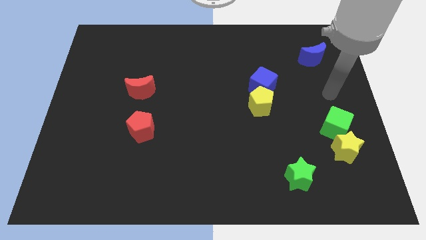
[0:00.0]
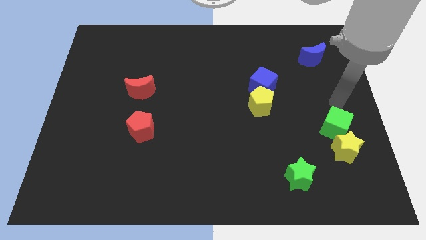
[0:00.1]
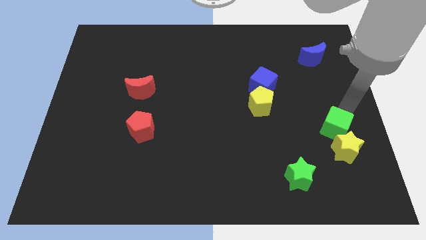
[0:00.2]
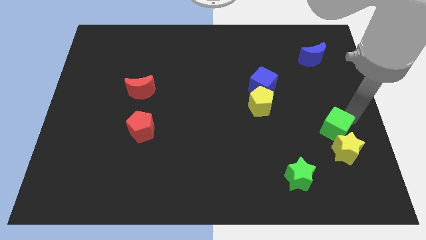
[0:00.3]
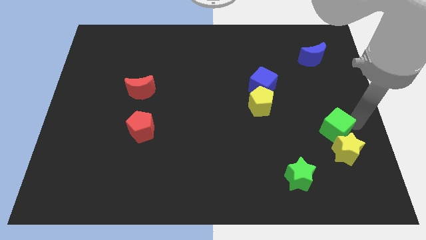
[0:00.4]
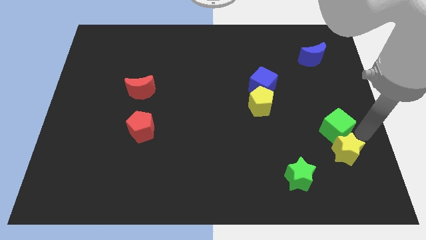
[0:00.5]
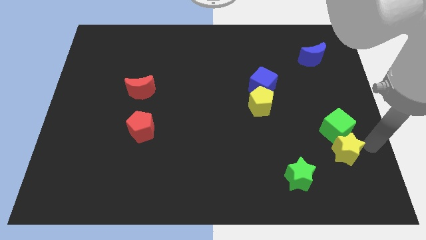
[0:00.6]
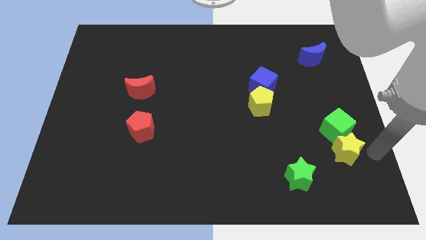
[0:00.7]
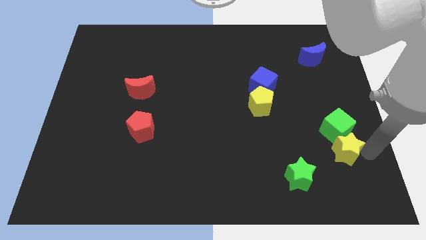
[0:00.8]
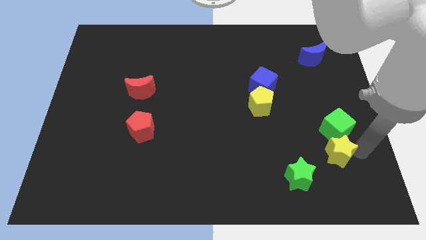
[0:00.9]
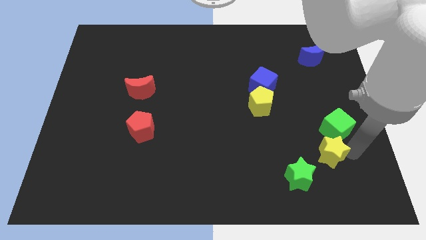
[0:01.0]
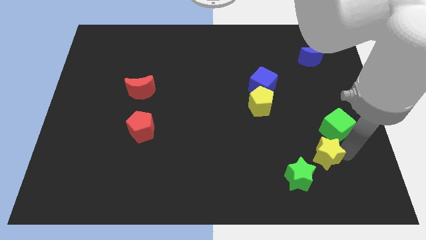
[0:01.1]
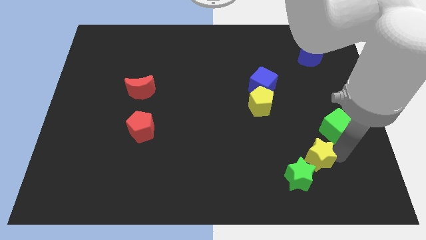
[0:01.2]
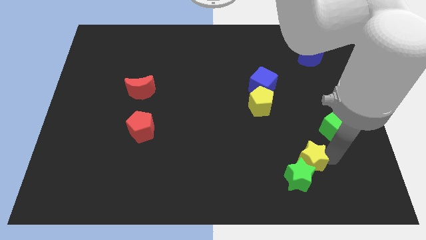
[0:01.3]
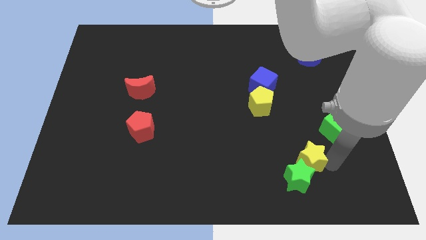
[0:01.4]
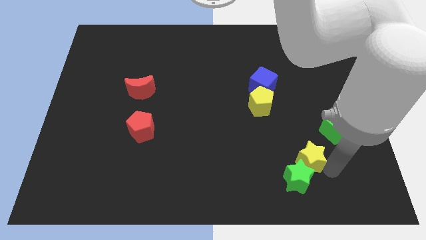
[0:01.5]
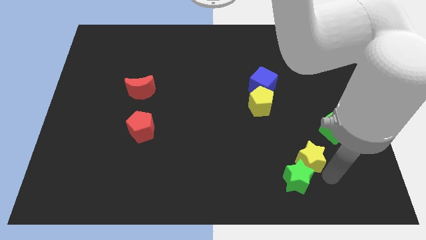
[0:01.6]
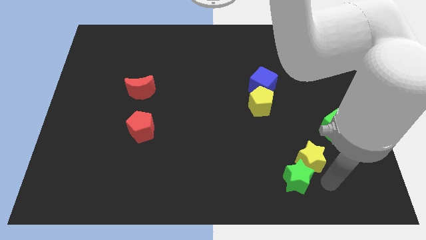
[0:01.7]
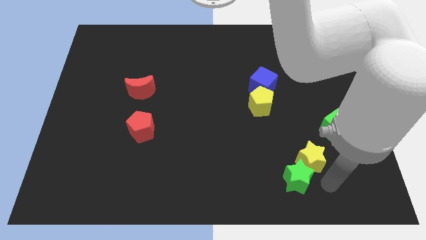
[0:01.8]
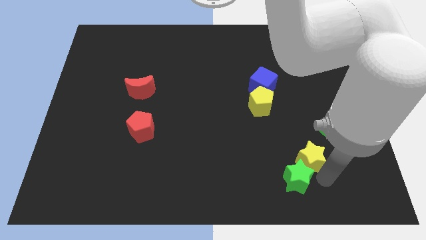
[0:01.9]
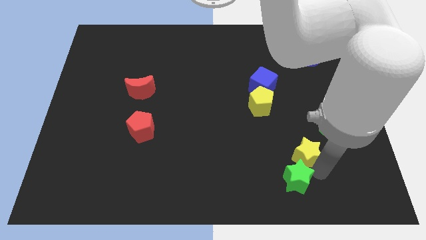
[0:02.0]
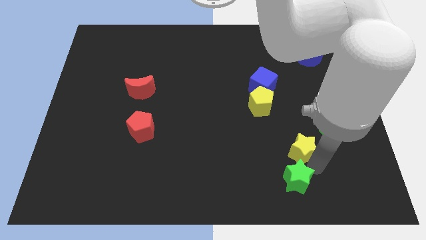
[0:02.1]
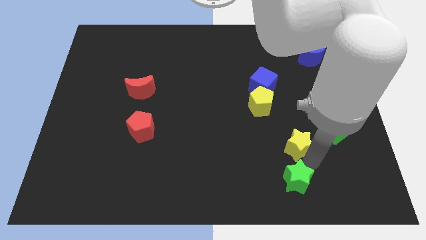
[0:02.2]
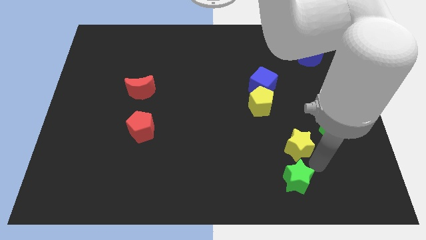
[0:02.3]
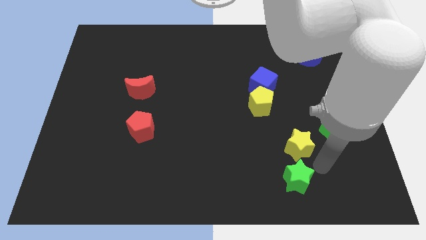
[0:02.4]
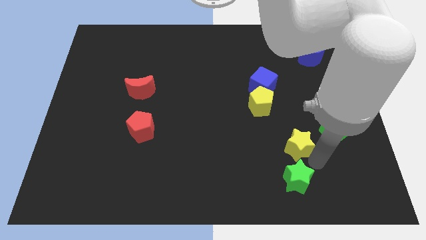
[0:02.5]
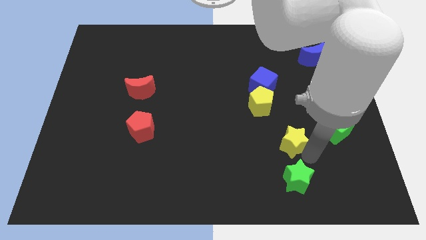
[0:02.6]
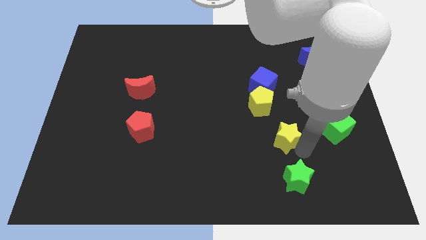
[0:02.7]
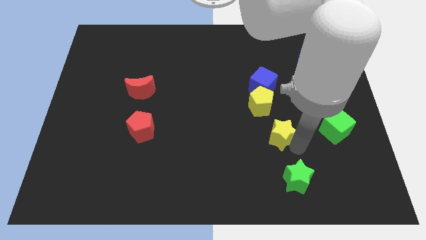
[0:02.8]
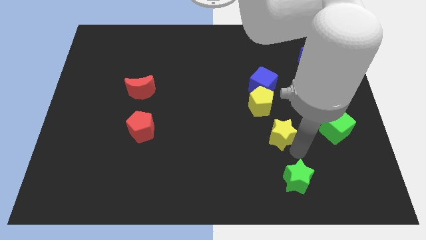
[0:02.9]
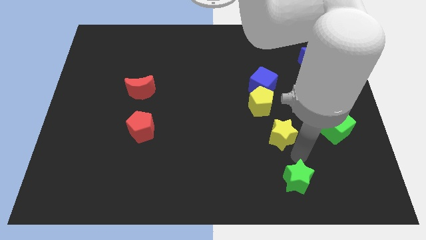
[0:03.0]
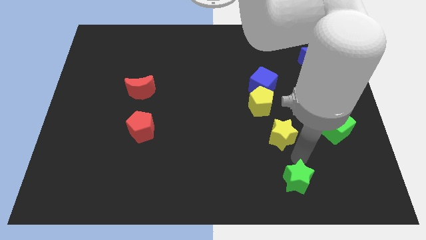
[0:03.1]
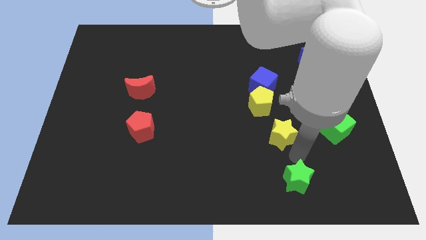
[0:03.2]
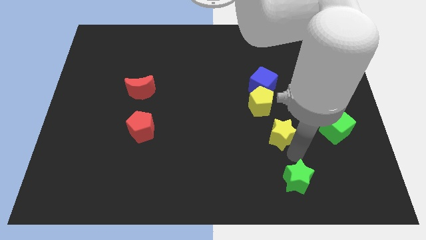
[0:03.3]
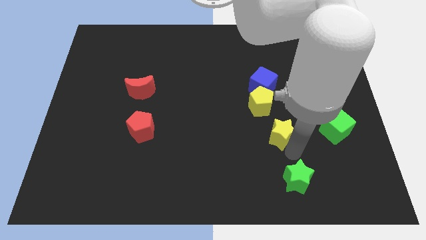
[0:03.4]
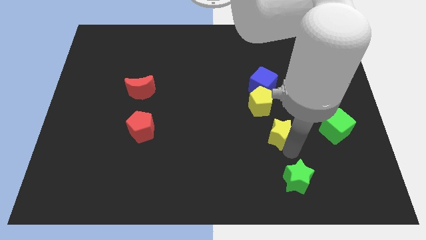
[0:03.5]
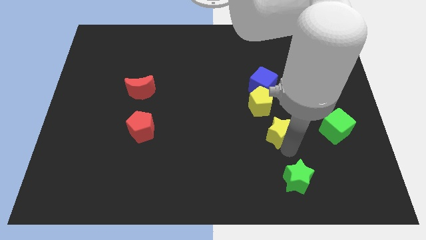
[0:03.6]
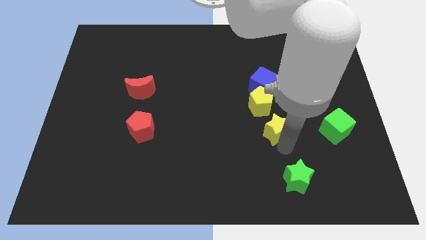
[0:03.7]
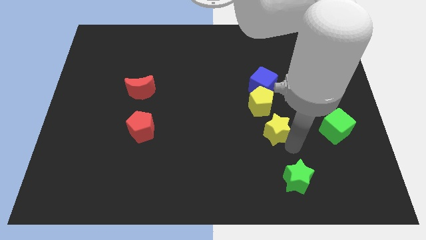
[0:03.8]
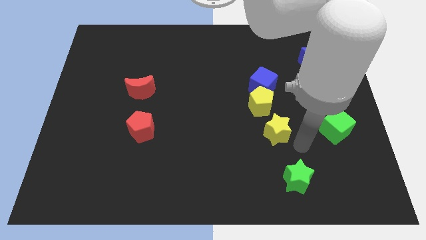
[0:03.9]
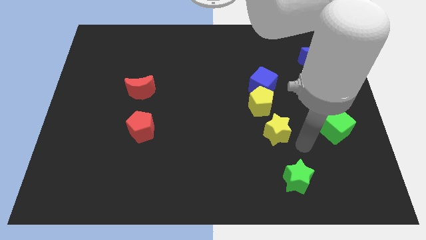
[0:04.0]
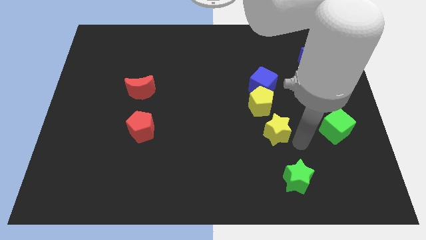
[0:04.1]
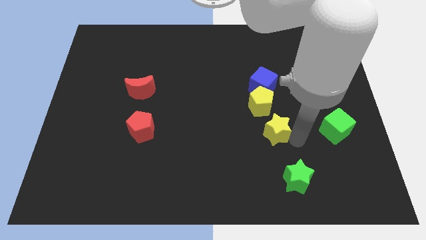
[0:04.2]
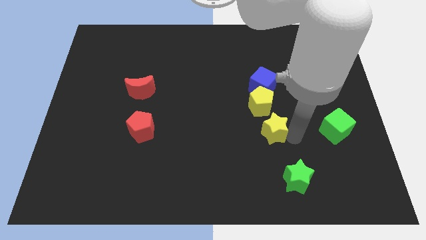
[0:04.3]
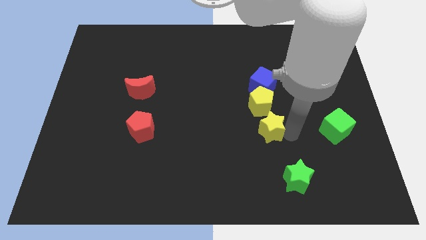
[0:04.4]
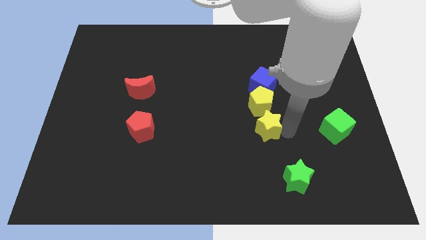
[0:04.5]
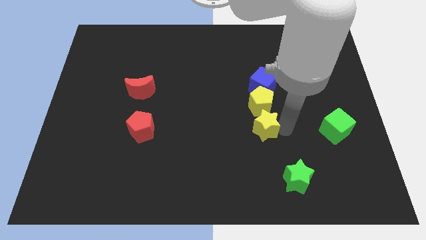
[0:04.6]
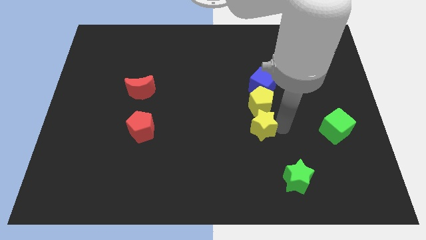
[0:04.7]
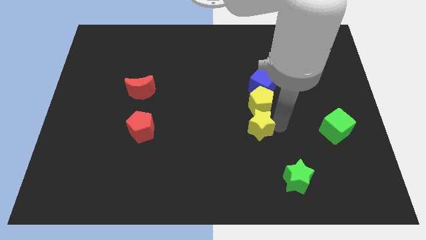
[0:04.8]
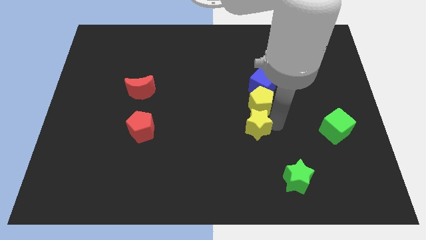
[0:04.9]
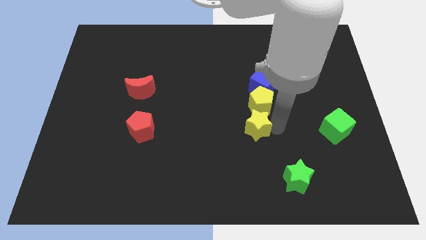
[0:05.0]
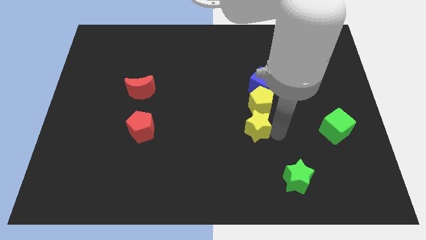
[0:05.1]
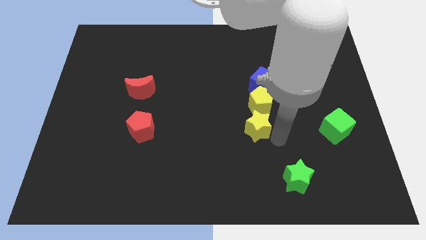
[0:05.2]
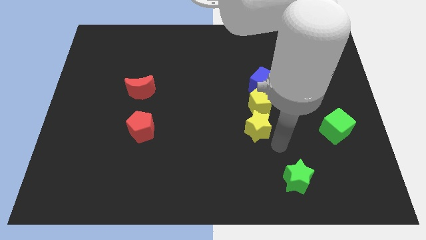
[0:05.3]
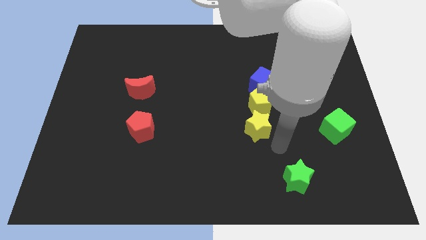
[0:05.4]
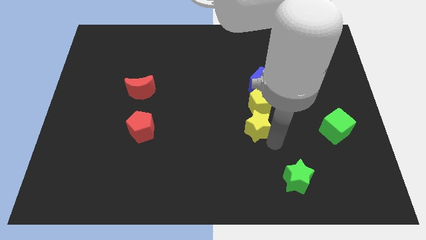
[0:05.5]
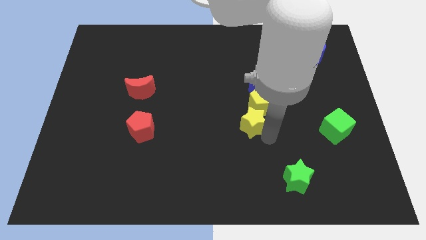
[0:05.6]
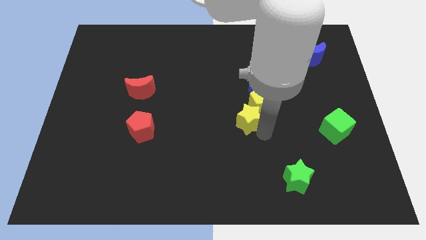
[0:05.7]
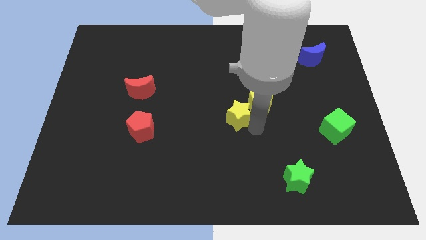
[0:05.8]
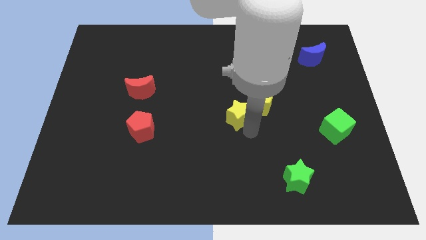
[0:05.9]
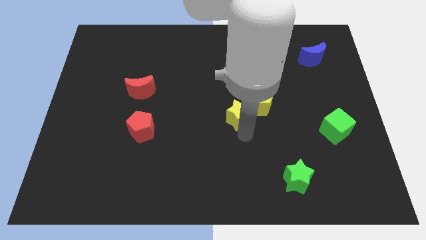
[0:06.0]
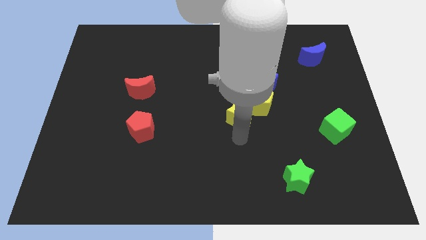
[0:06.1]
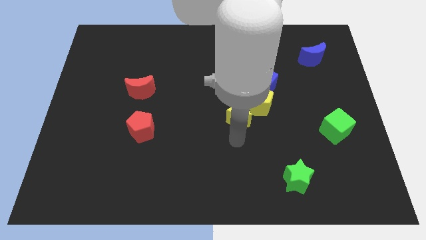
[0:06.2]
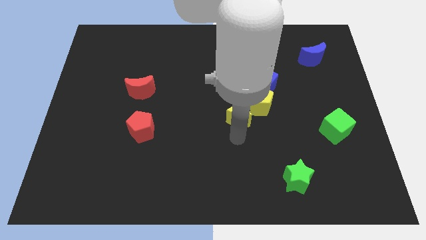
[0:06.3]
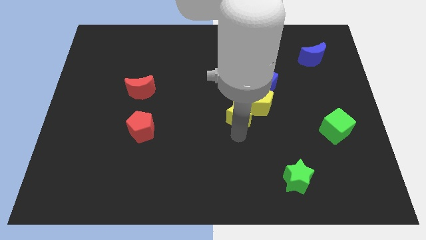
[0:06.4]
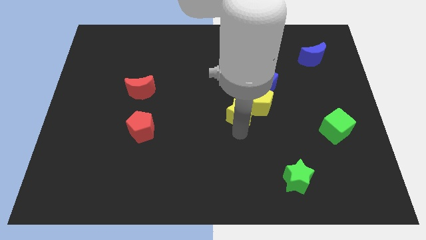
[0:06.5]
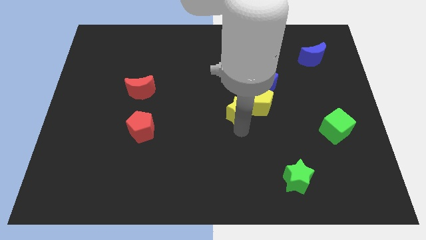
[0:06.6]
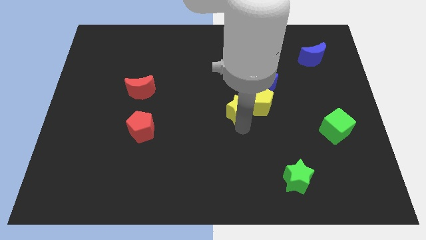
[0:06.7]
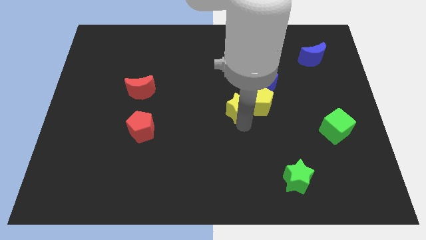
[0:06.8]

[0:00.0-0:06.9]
push the yellow star diagonally upwards and to the left

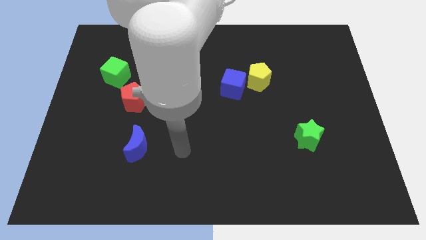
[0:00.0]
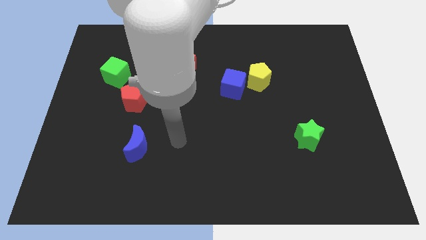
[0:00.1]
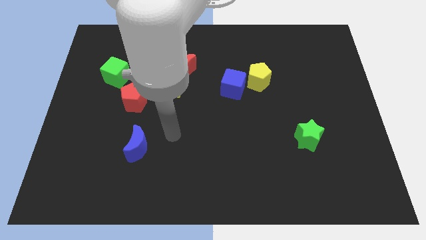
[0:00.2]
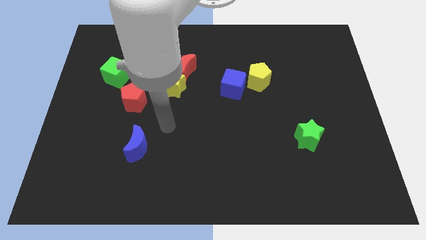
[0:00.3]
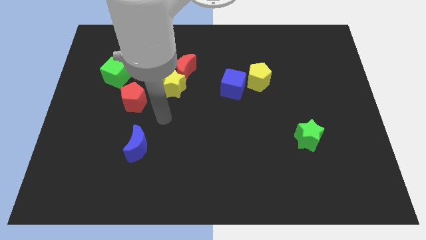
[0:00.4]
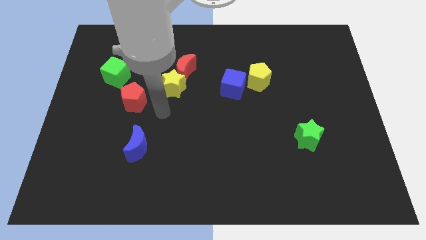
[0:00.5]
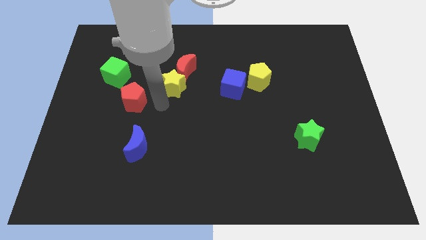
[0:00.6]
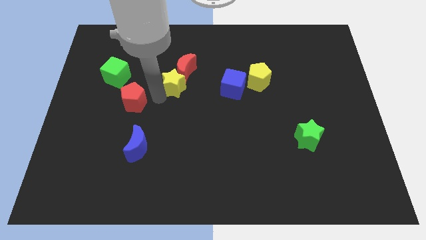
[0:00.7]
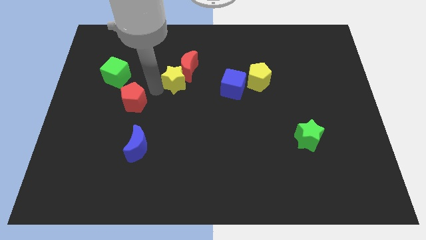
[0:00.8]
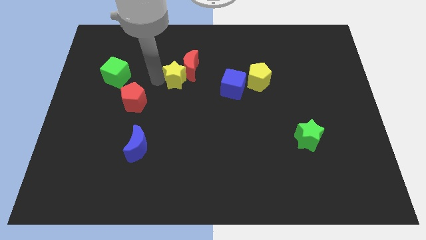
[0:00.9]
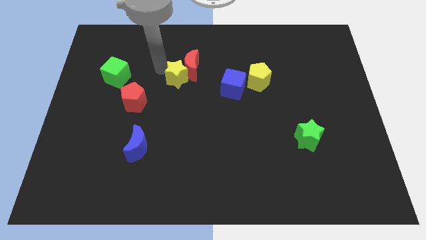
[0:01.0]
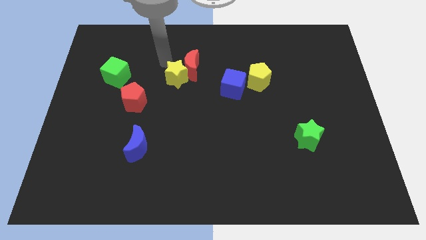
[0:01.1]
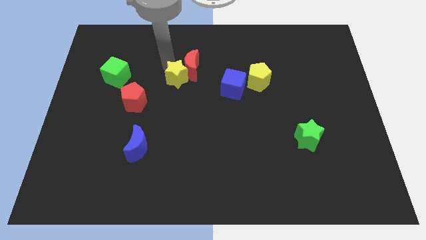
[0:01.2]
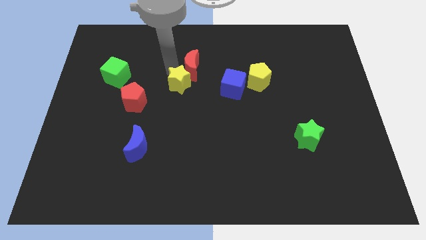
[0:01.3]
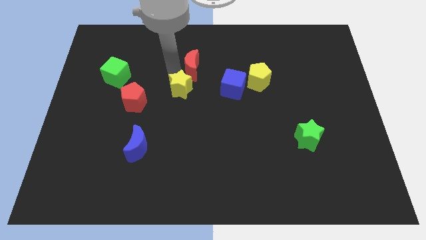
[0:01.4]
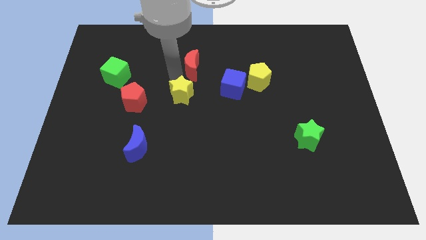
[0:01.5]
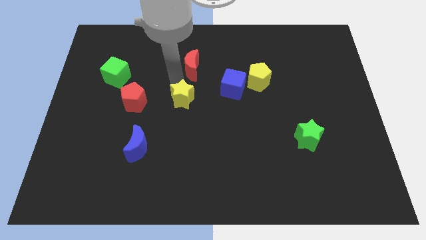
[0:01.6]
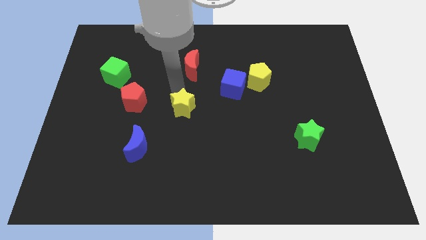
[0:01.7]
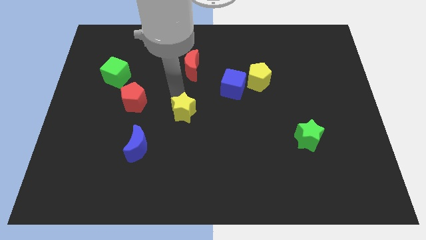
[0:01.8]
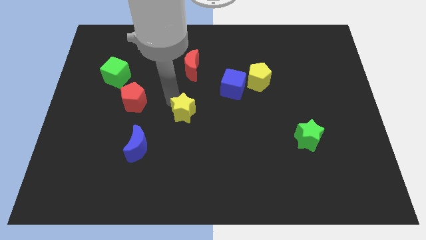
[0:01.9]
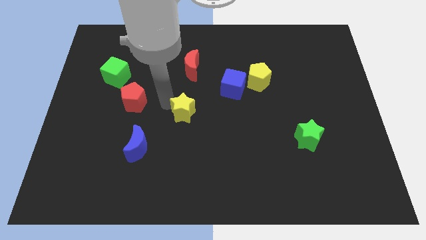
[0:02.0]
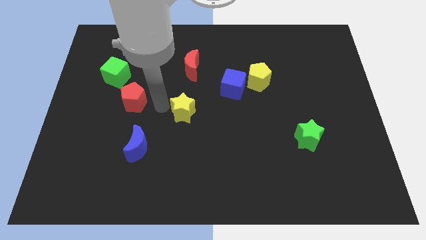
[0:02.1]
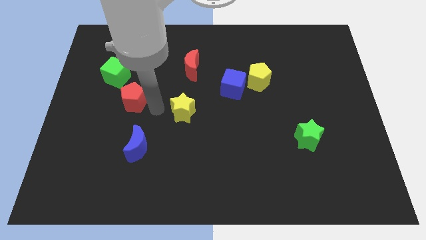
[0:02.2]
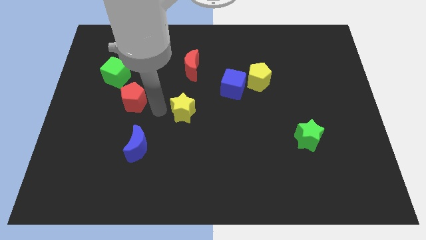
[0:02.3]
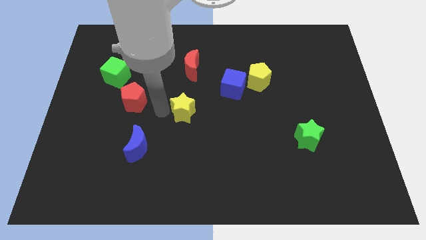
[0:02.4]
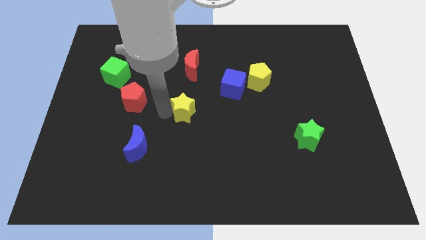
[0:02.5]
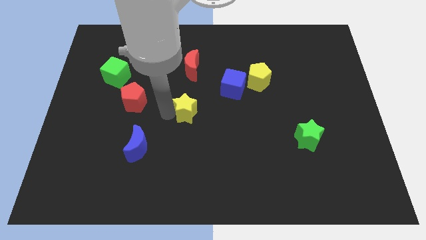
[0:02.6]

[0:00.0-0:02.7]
move the yellow star down and right diagonally slightly
